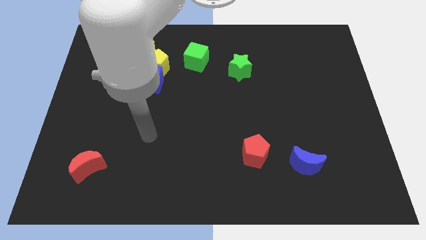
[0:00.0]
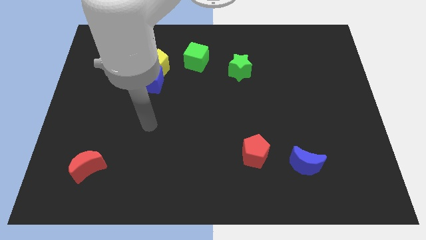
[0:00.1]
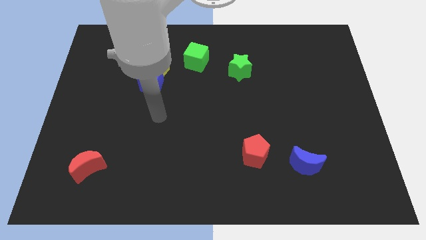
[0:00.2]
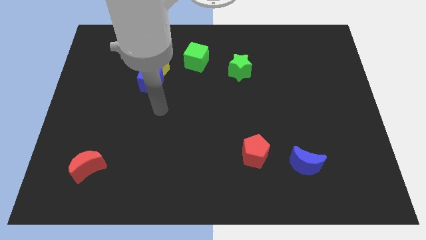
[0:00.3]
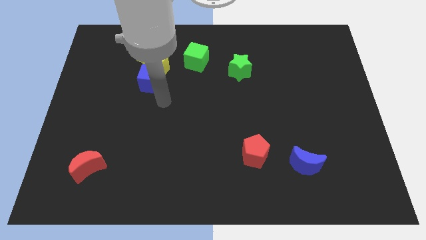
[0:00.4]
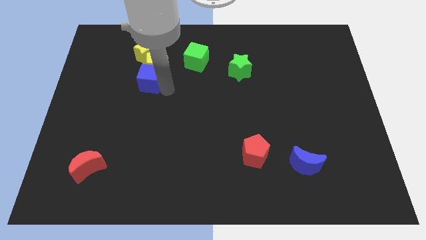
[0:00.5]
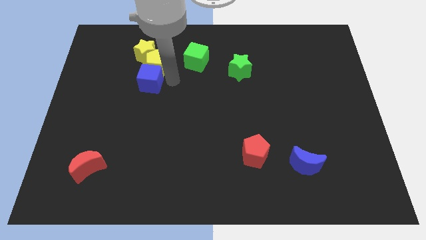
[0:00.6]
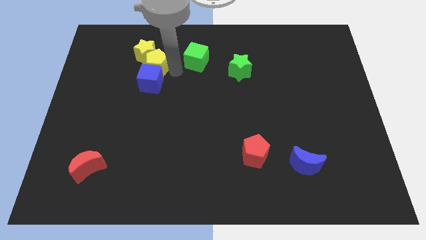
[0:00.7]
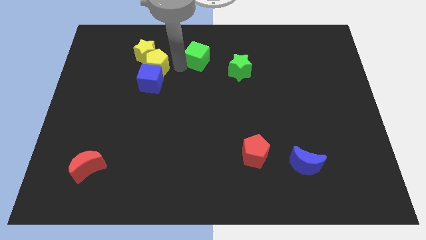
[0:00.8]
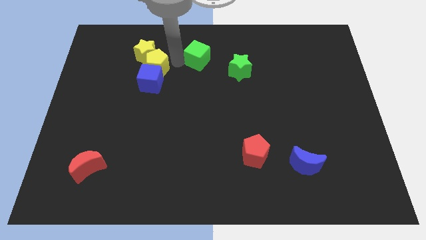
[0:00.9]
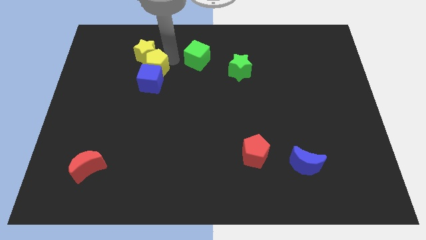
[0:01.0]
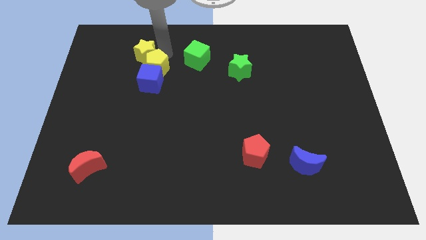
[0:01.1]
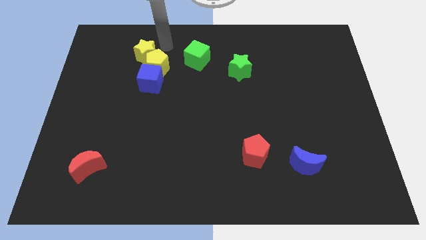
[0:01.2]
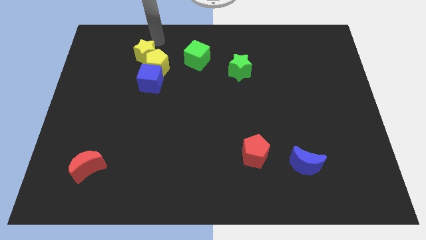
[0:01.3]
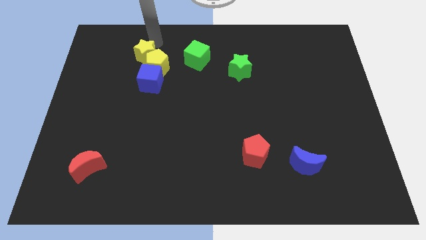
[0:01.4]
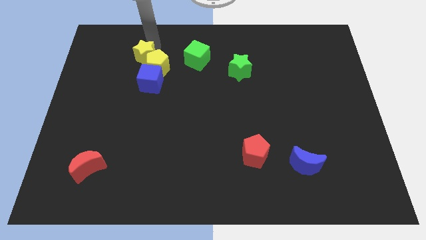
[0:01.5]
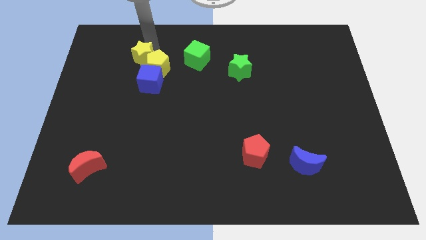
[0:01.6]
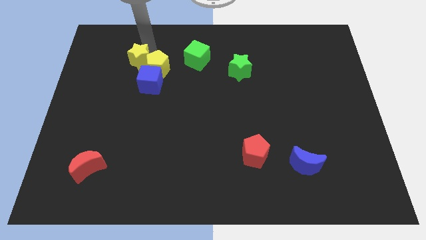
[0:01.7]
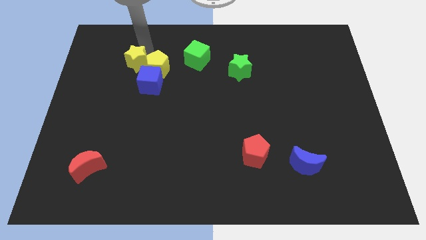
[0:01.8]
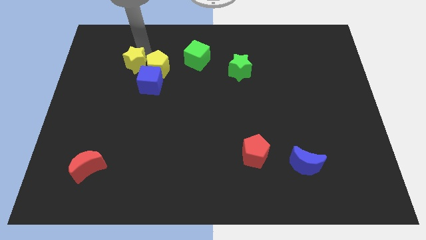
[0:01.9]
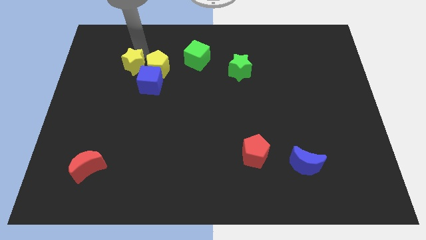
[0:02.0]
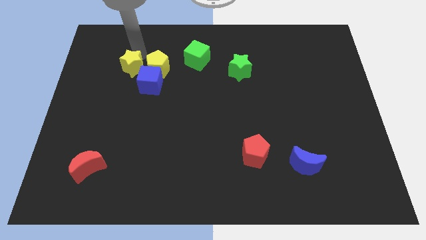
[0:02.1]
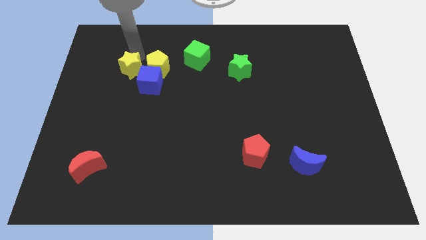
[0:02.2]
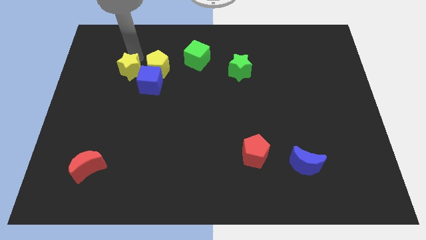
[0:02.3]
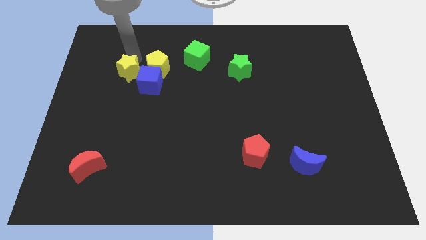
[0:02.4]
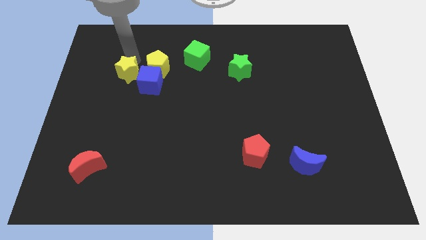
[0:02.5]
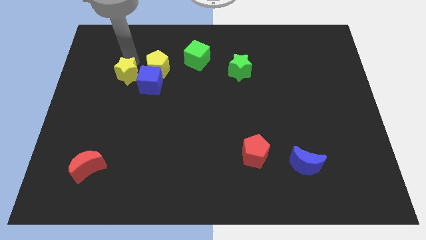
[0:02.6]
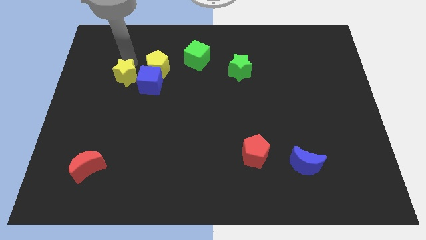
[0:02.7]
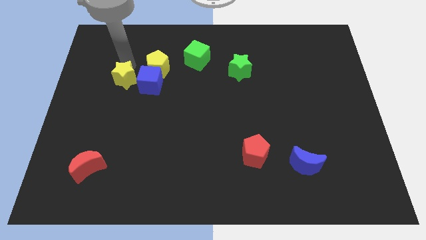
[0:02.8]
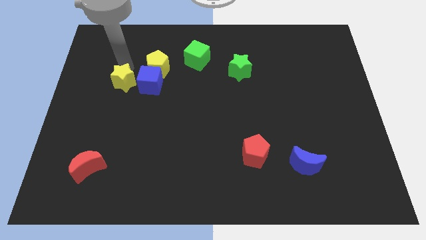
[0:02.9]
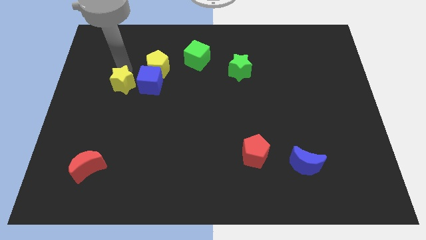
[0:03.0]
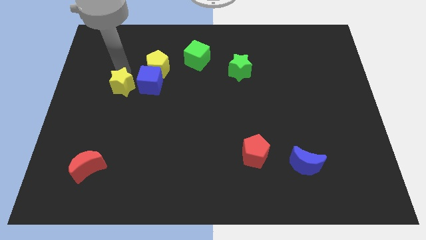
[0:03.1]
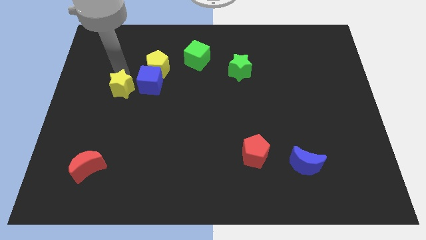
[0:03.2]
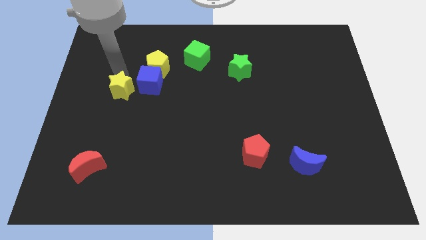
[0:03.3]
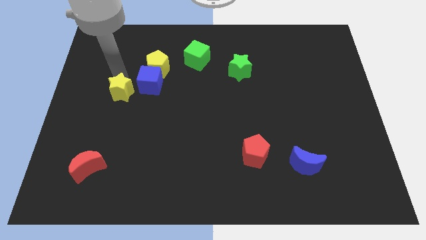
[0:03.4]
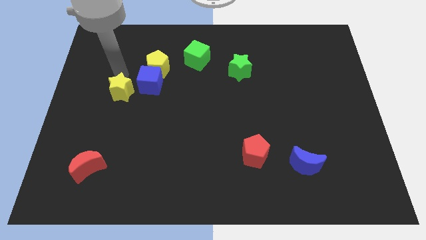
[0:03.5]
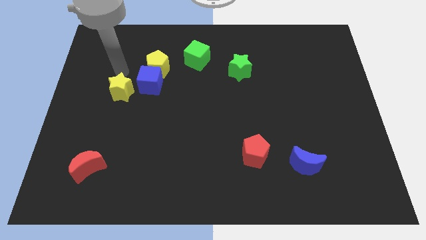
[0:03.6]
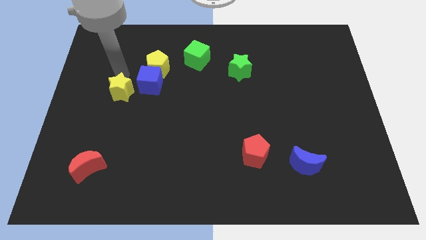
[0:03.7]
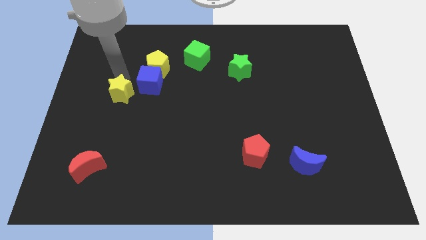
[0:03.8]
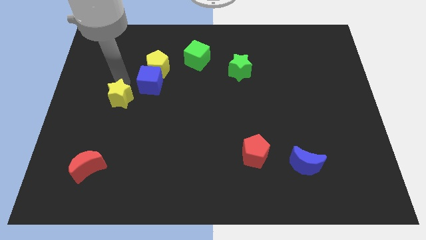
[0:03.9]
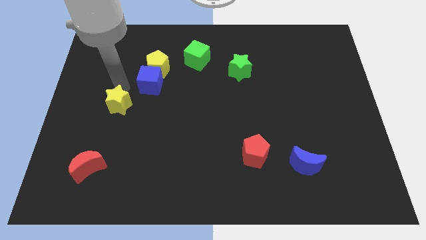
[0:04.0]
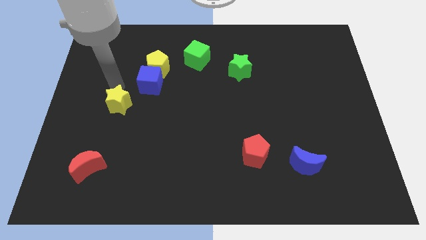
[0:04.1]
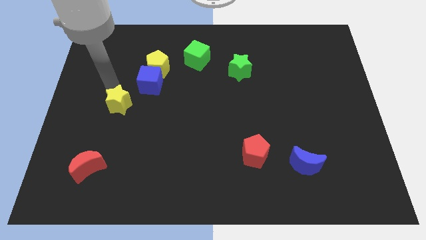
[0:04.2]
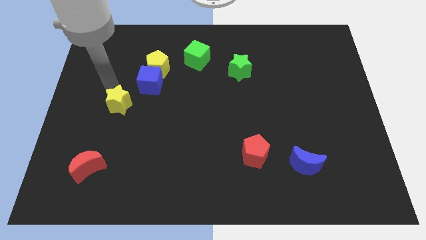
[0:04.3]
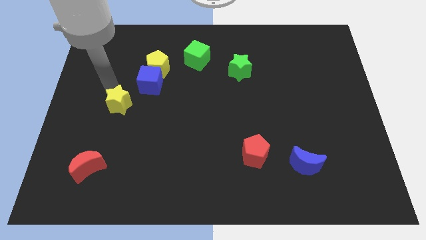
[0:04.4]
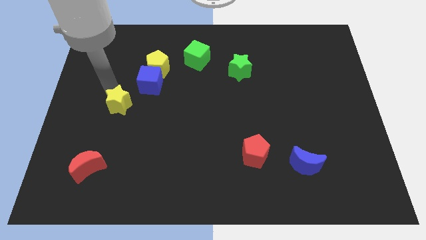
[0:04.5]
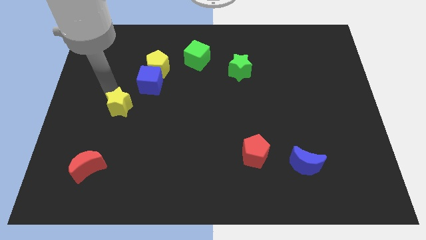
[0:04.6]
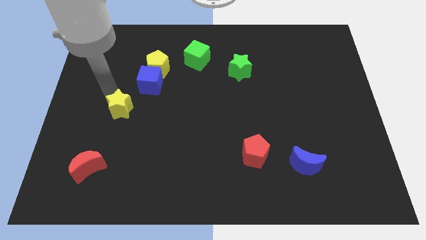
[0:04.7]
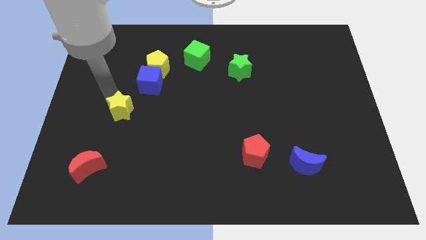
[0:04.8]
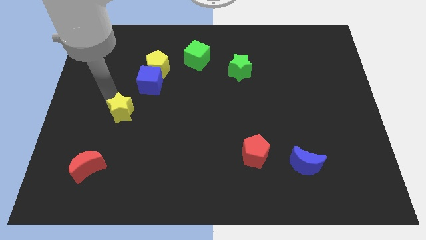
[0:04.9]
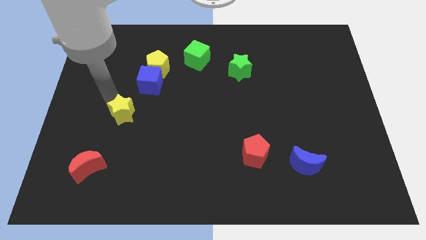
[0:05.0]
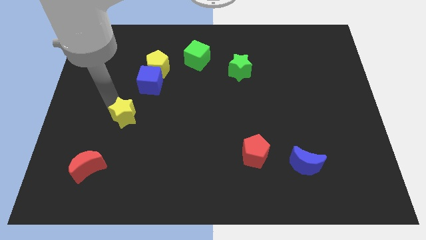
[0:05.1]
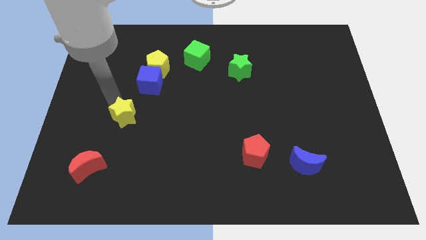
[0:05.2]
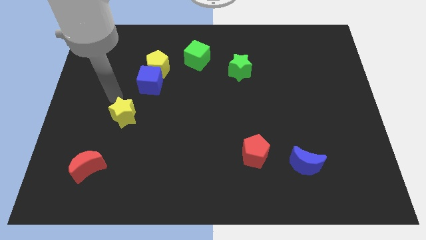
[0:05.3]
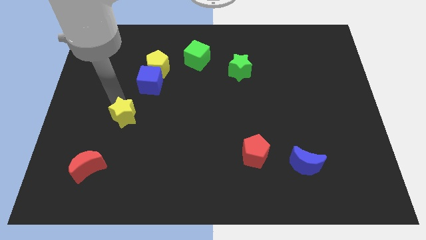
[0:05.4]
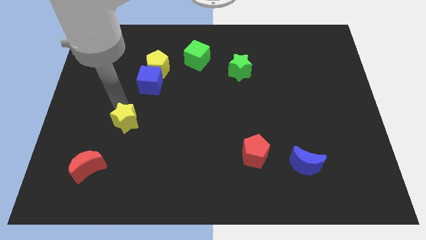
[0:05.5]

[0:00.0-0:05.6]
move the yellow star down

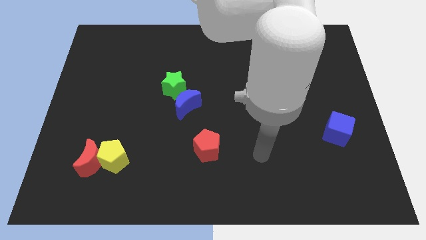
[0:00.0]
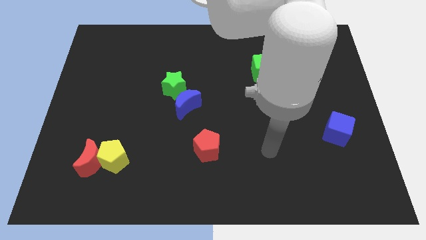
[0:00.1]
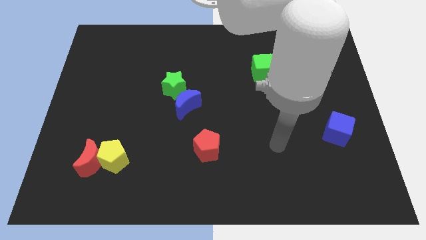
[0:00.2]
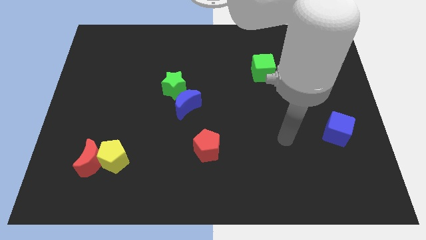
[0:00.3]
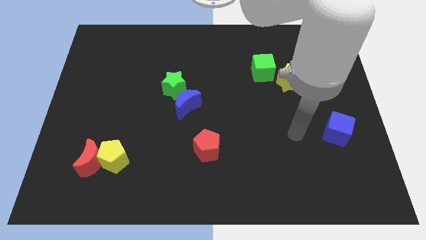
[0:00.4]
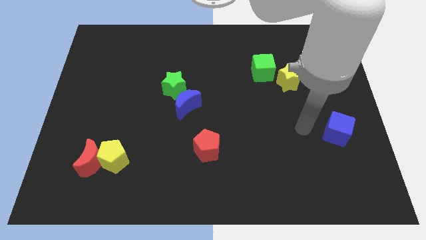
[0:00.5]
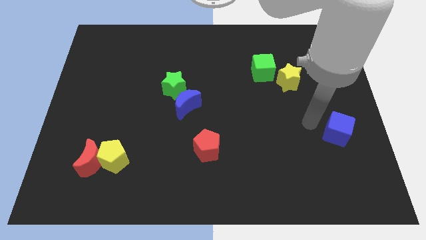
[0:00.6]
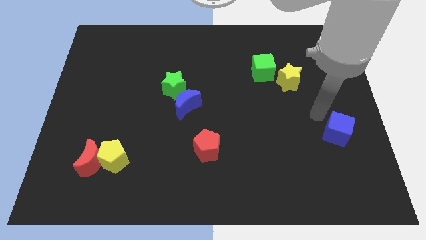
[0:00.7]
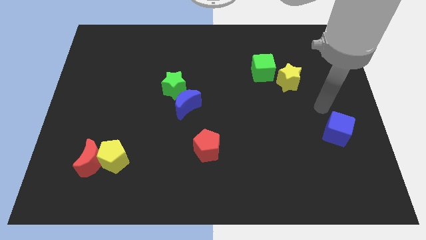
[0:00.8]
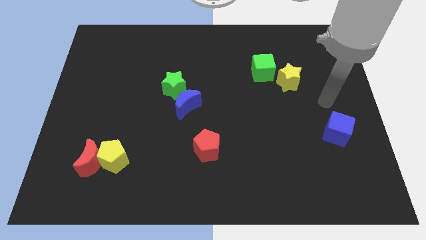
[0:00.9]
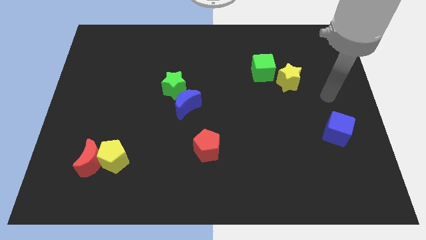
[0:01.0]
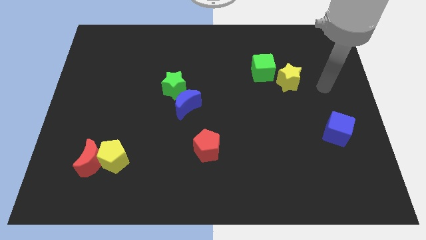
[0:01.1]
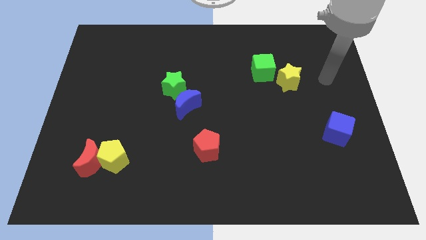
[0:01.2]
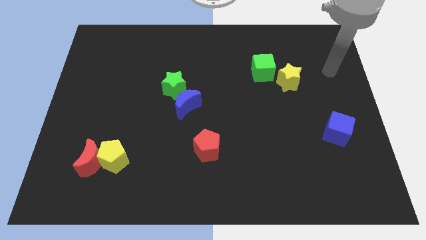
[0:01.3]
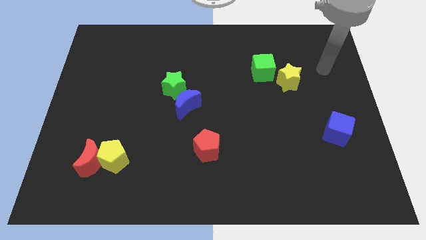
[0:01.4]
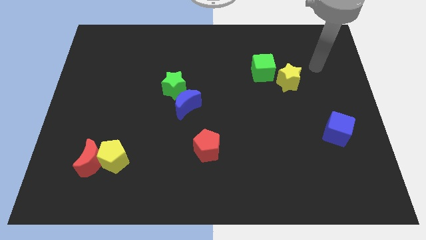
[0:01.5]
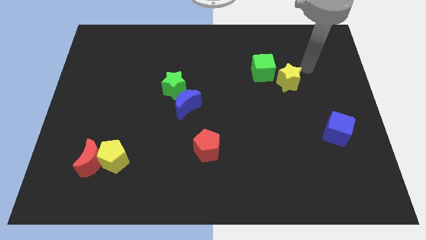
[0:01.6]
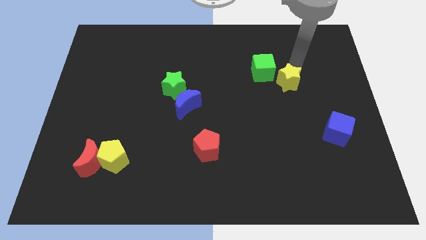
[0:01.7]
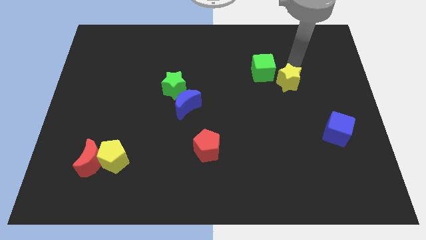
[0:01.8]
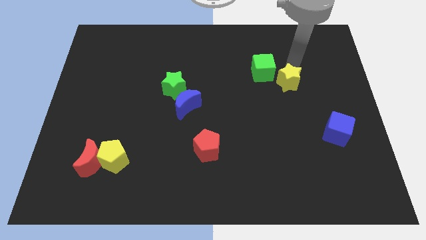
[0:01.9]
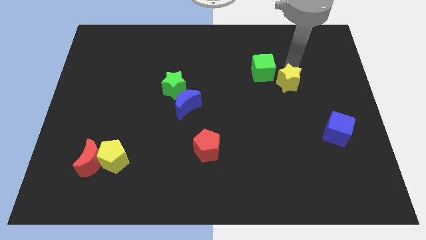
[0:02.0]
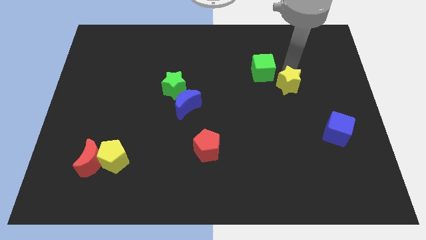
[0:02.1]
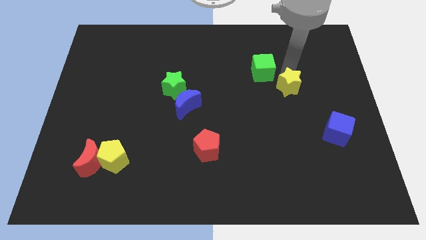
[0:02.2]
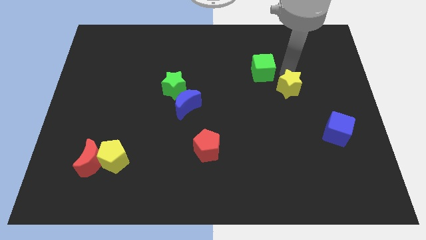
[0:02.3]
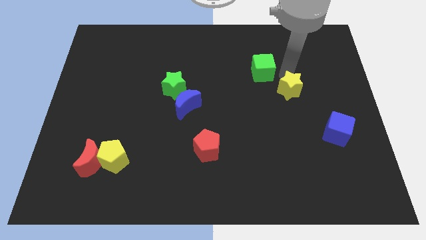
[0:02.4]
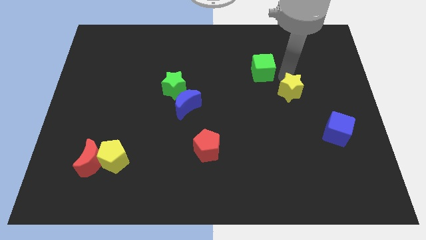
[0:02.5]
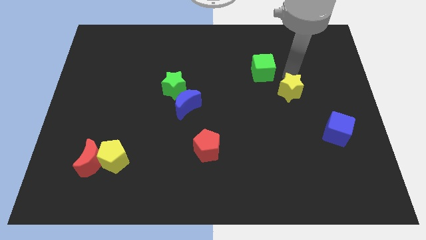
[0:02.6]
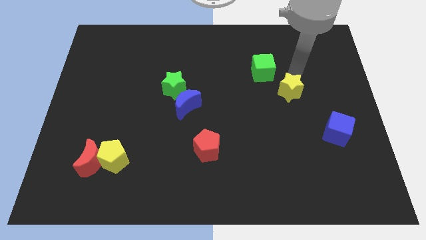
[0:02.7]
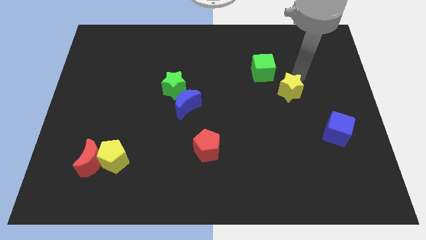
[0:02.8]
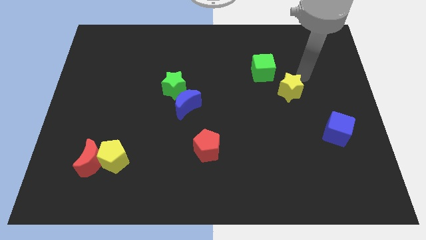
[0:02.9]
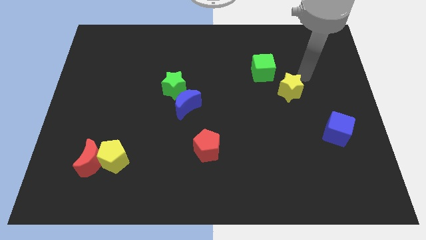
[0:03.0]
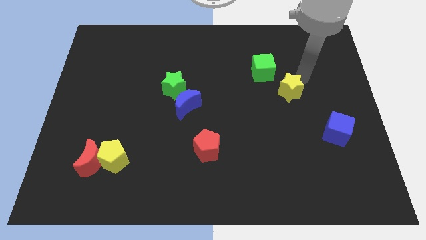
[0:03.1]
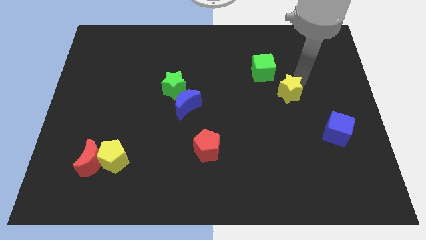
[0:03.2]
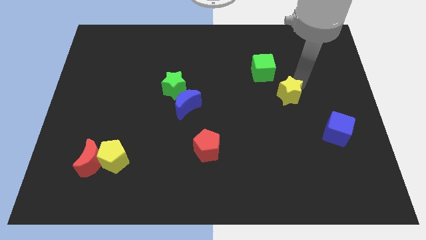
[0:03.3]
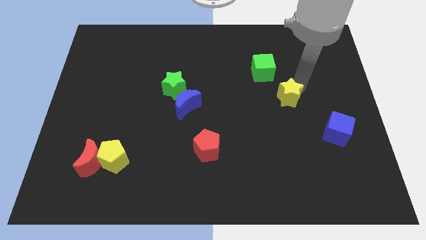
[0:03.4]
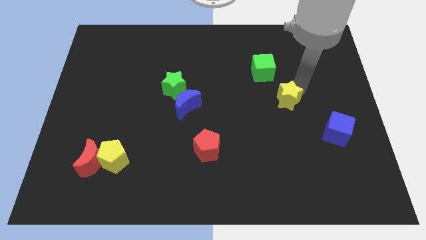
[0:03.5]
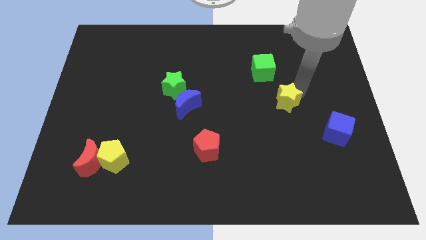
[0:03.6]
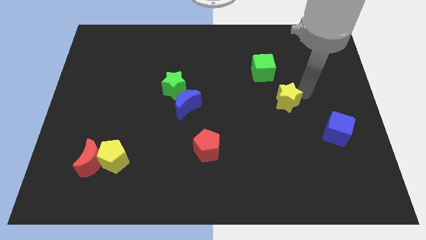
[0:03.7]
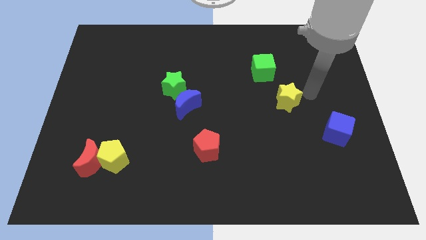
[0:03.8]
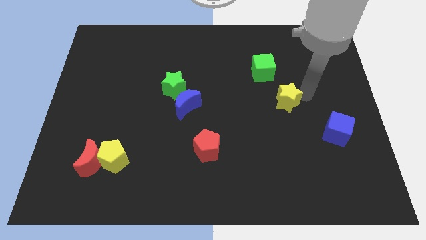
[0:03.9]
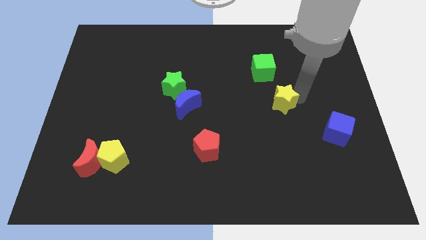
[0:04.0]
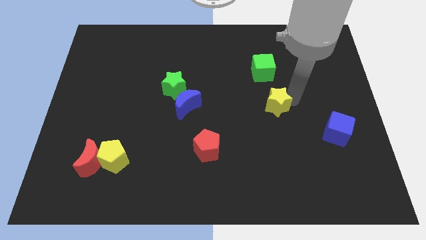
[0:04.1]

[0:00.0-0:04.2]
slightly move the yellow star downwards and then to the left
